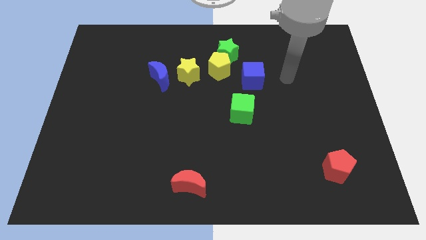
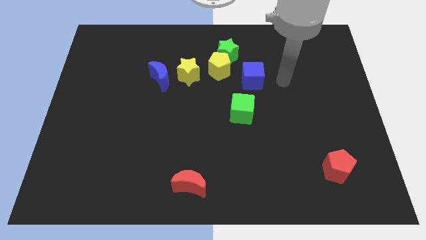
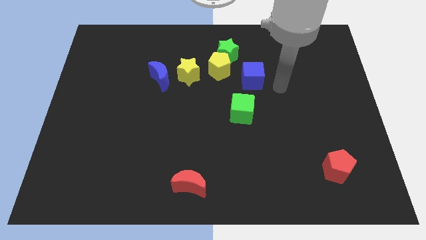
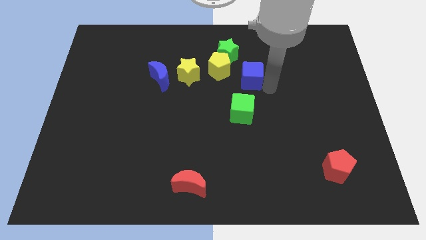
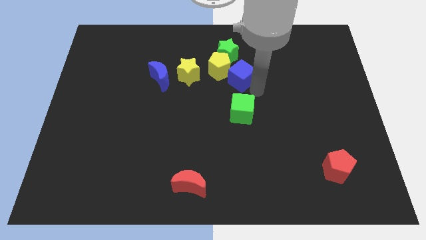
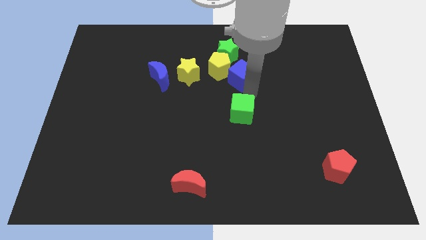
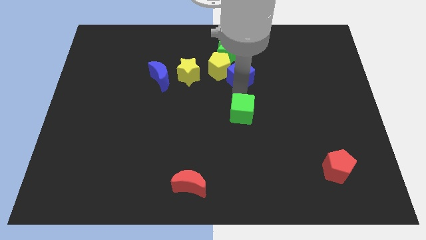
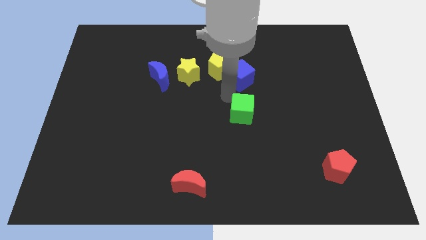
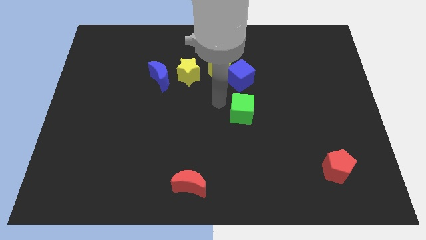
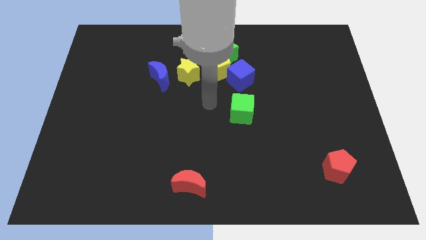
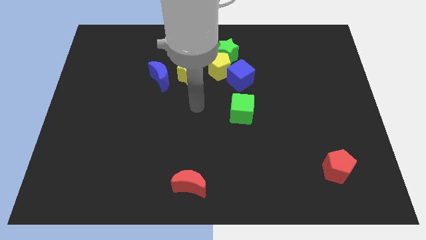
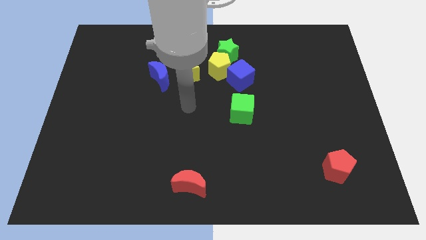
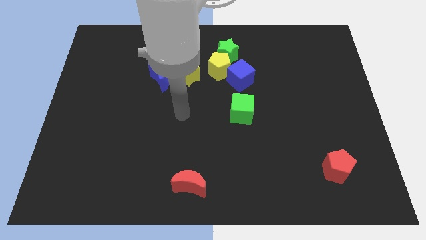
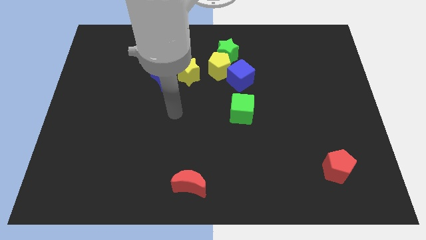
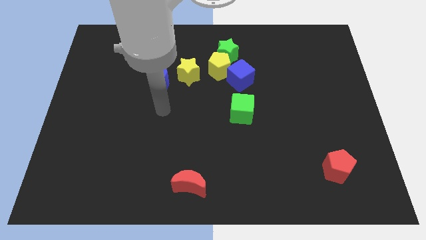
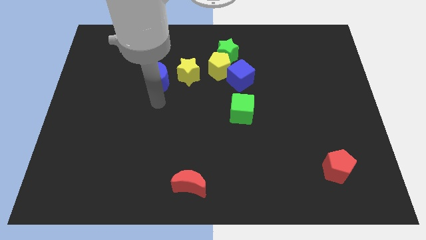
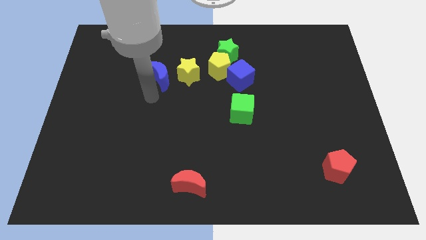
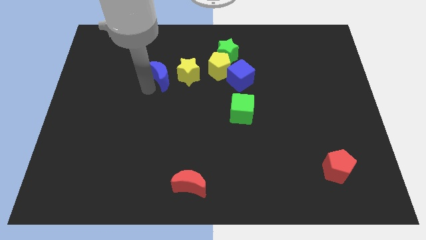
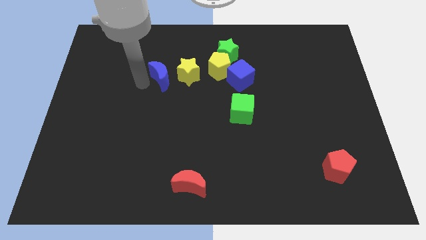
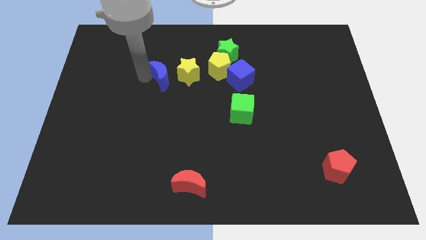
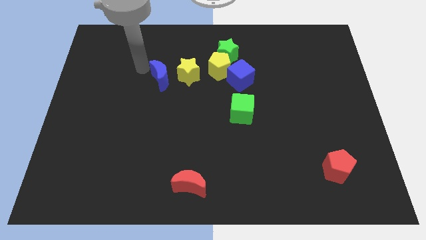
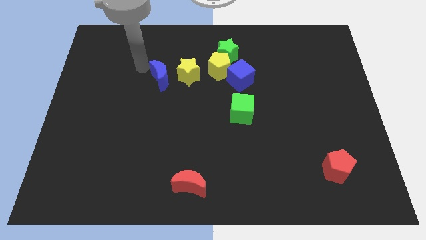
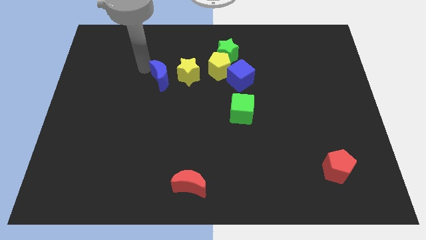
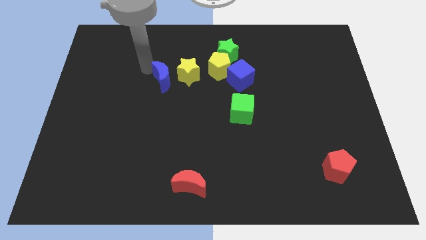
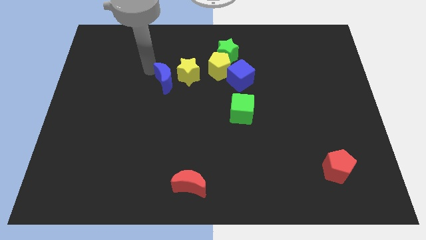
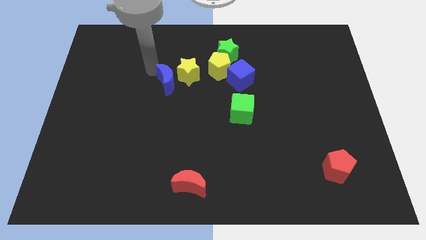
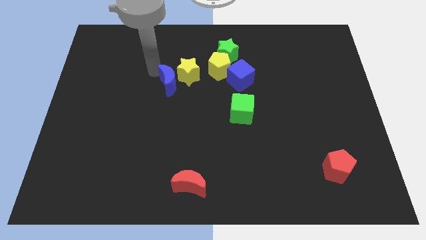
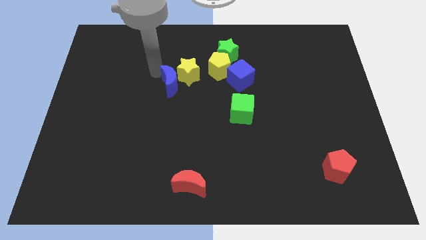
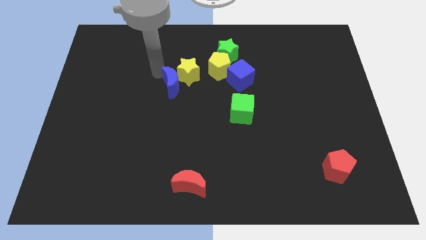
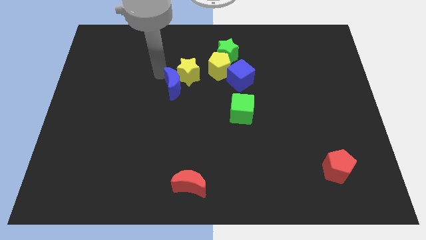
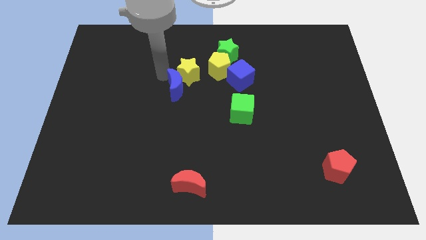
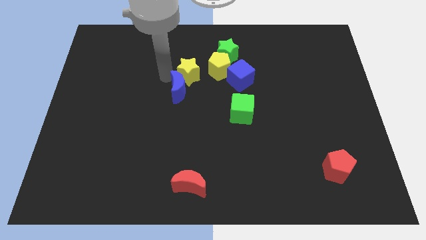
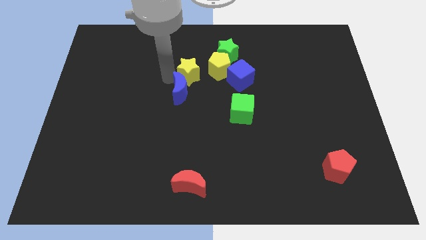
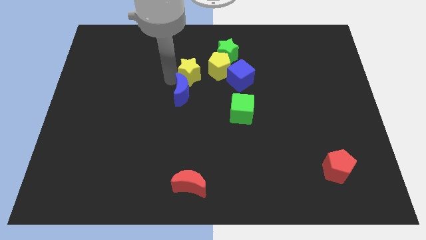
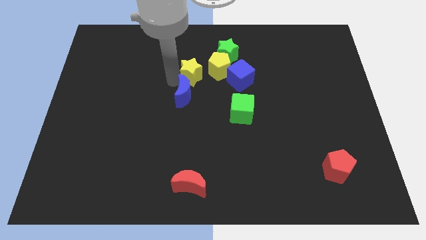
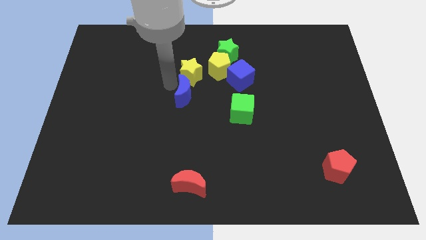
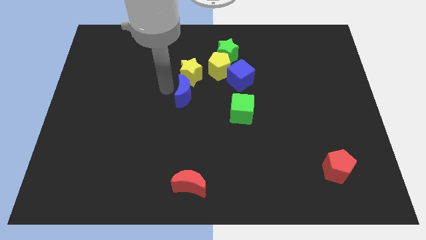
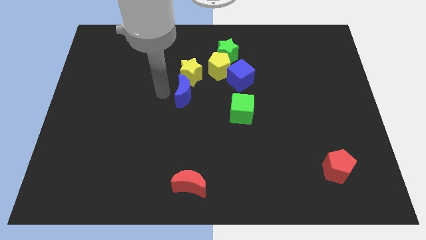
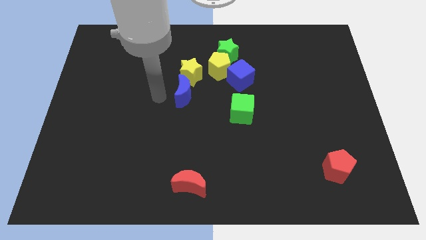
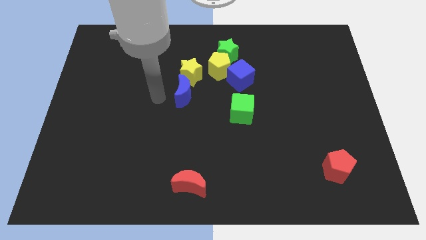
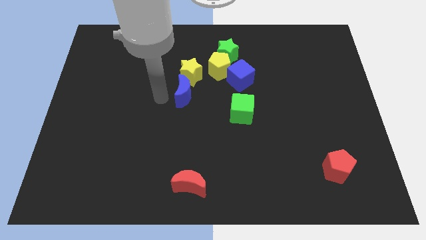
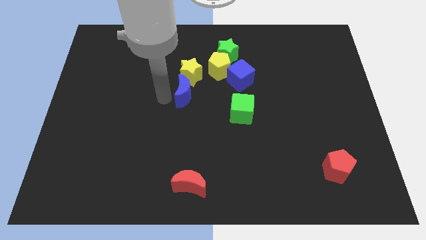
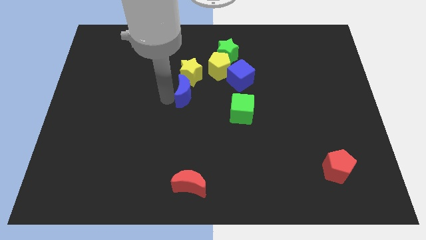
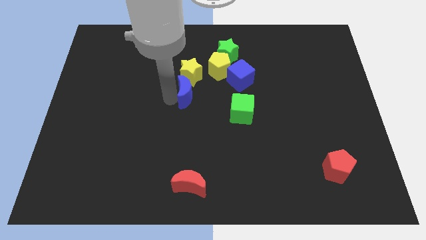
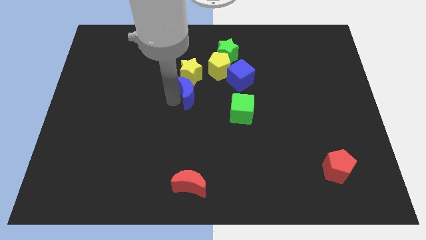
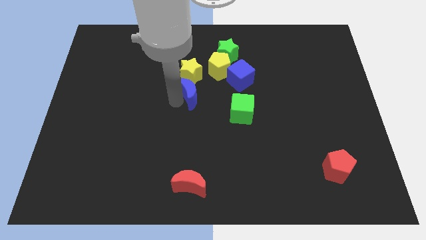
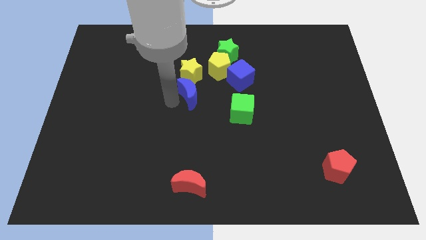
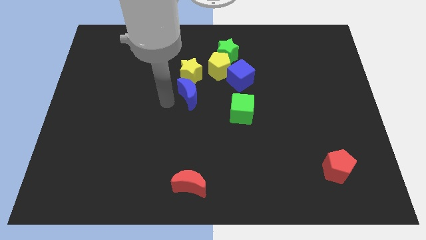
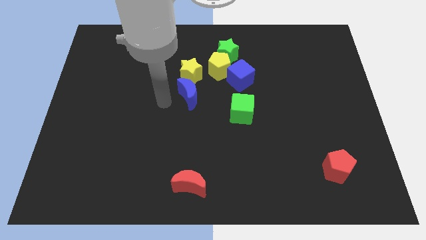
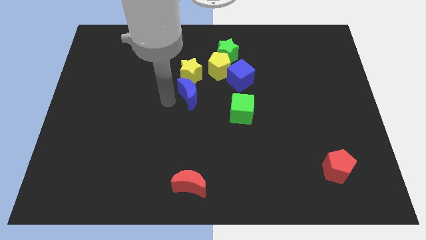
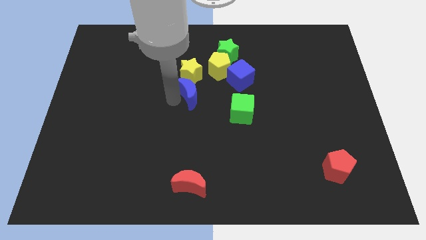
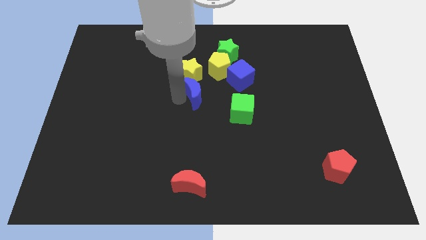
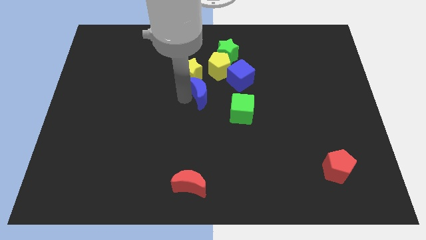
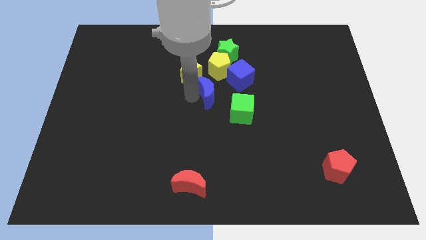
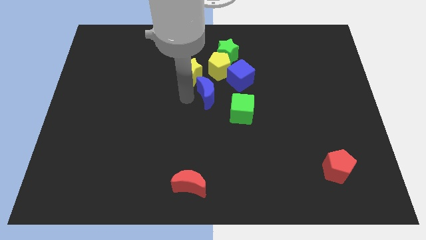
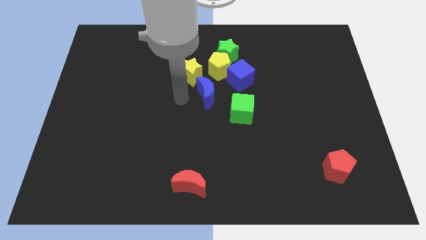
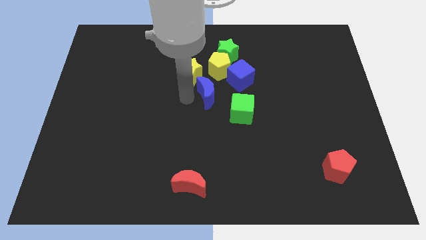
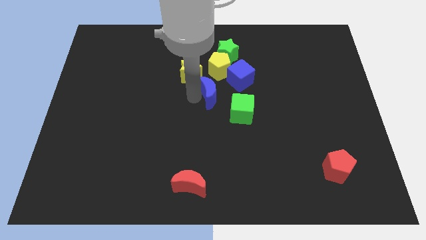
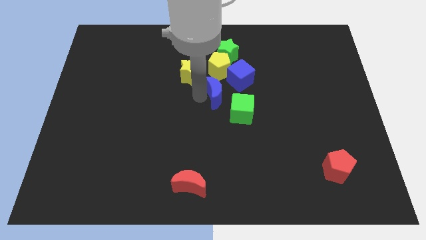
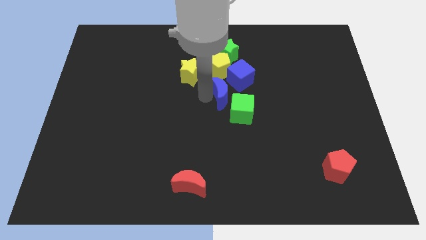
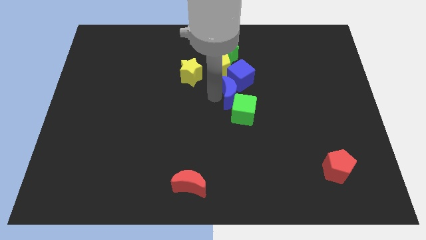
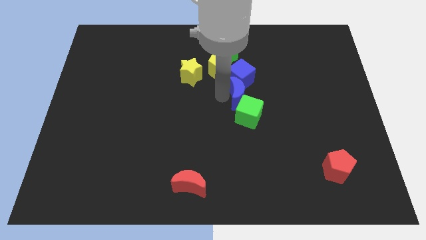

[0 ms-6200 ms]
move the blue moon diagonally down and to the right of the blue cube

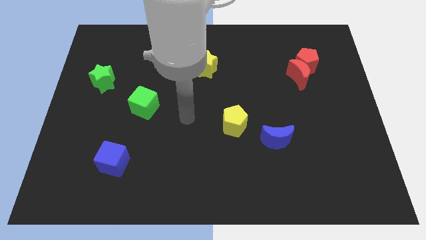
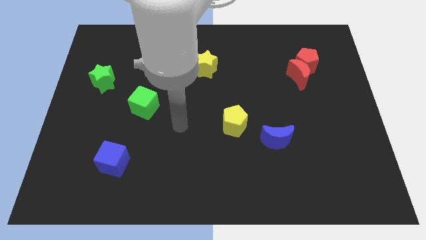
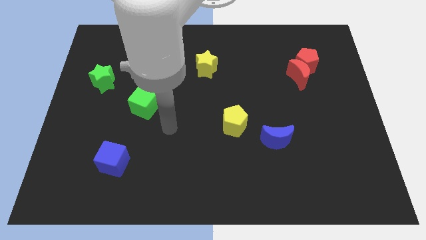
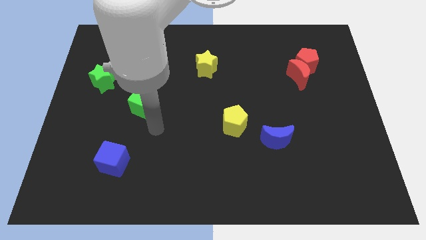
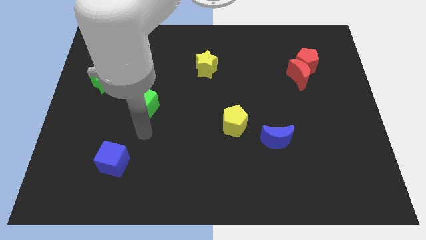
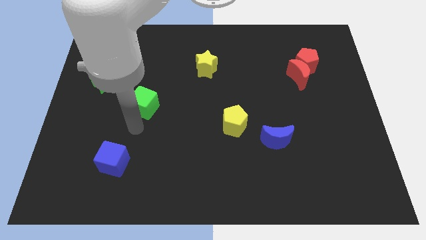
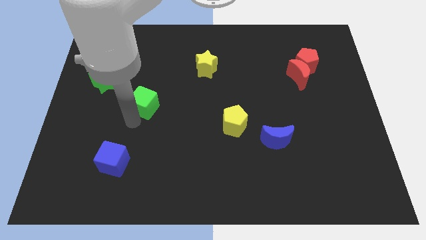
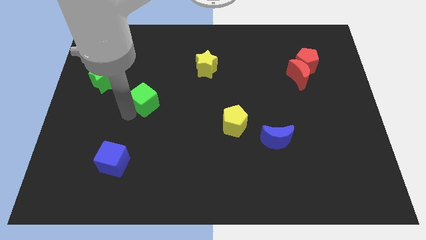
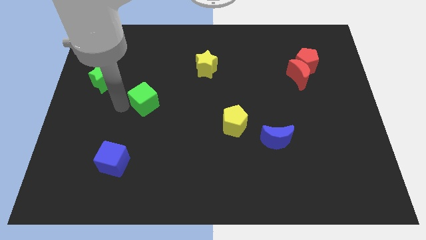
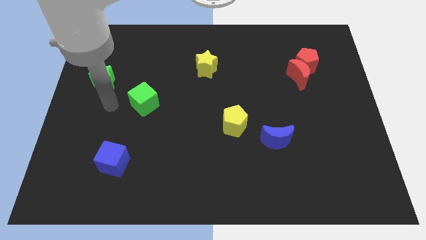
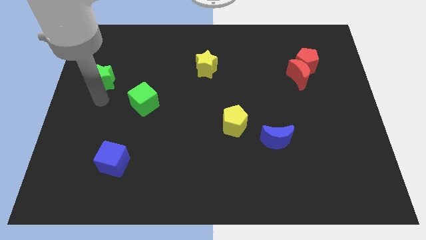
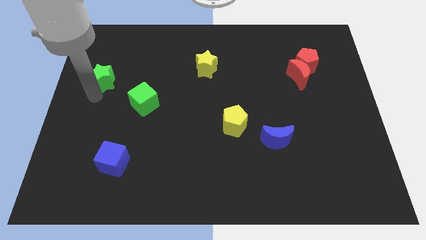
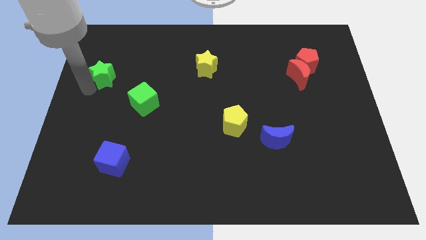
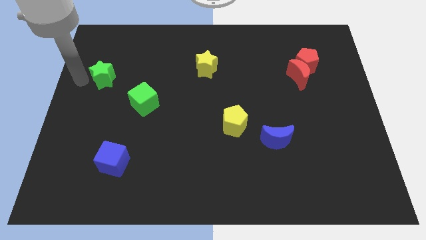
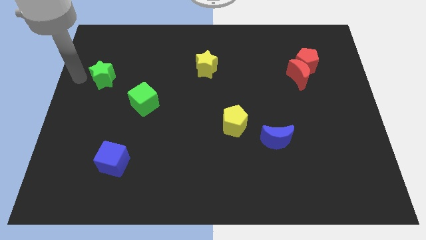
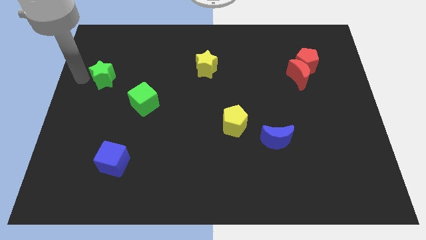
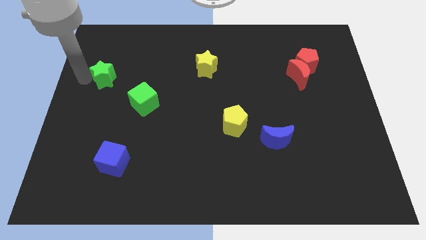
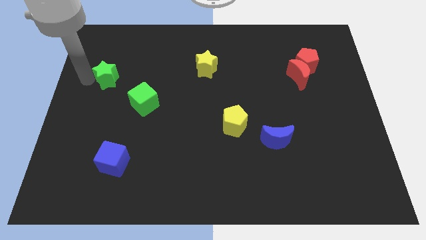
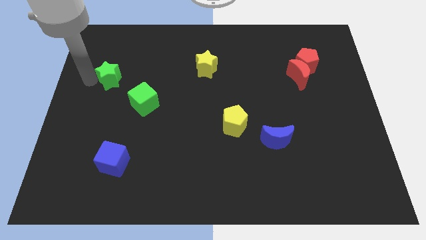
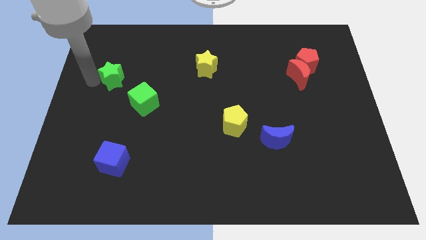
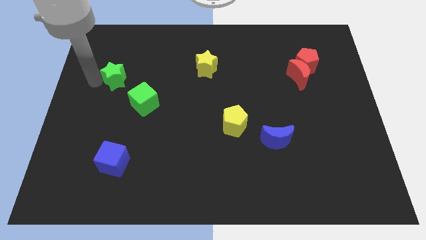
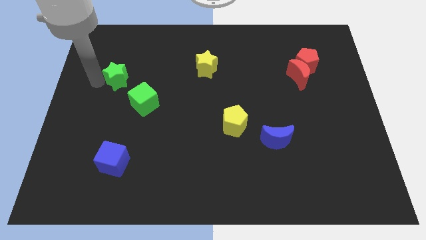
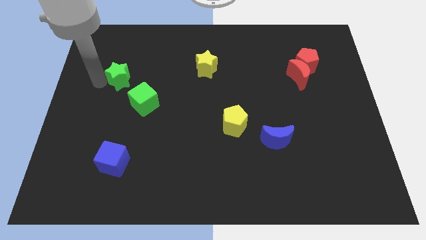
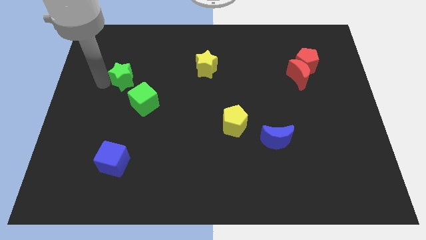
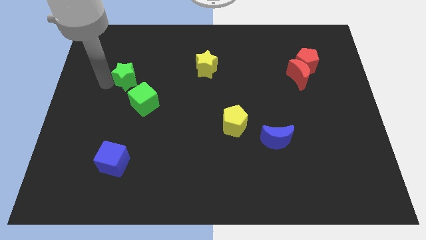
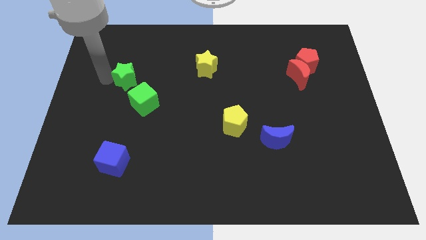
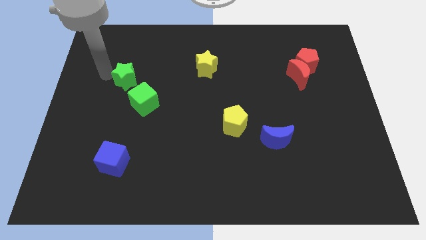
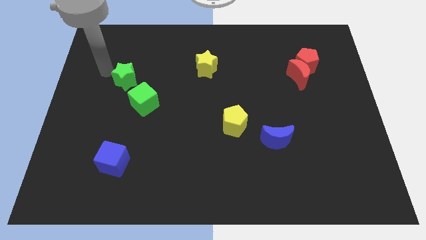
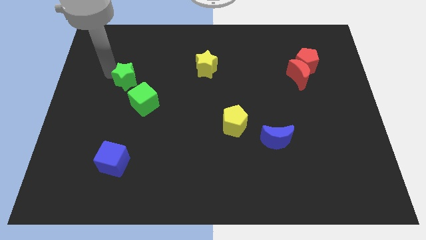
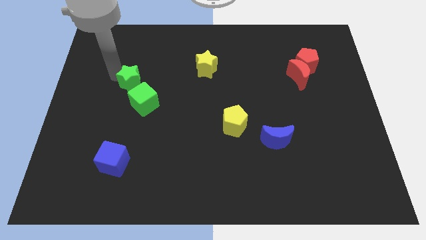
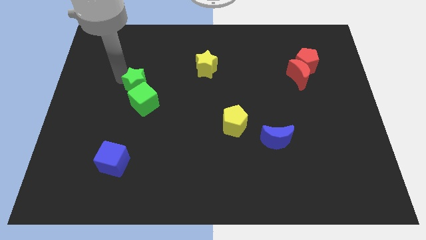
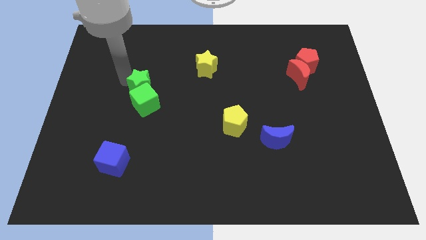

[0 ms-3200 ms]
slide the green star diagonally up and to the right of the green cube
